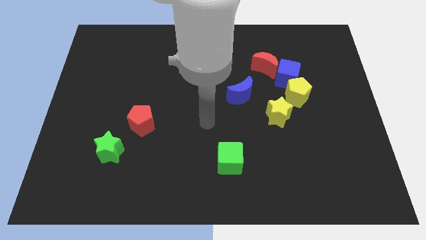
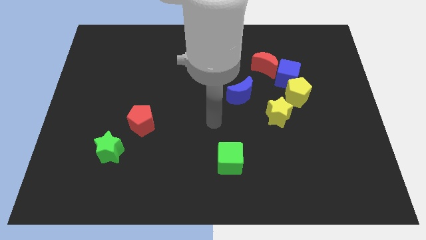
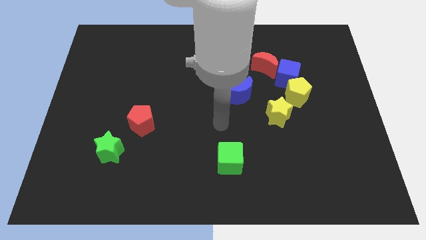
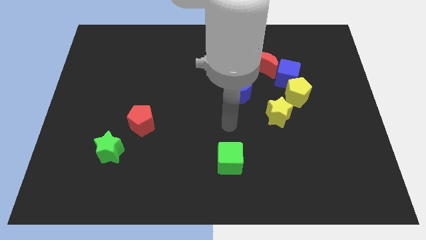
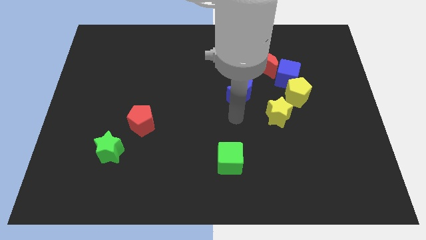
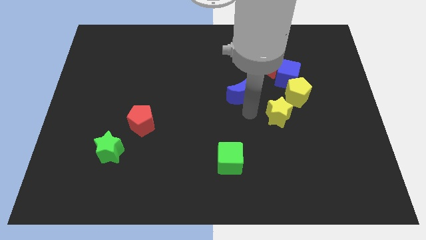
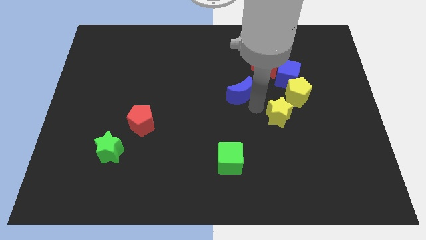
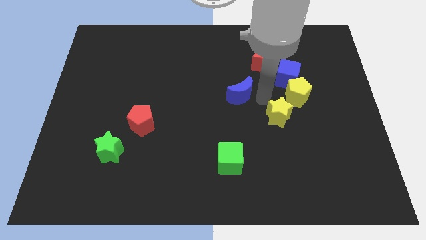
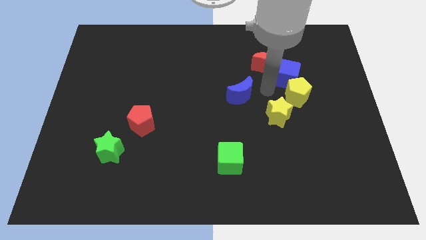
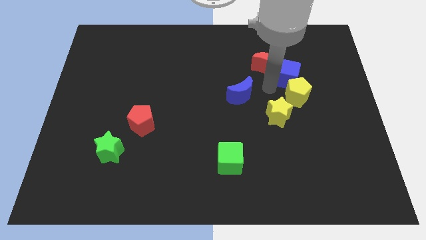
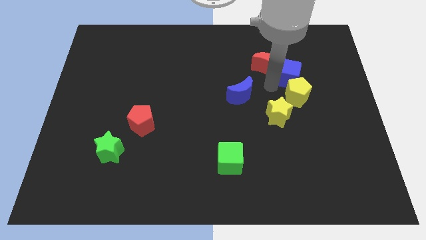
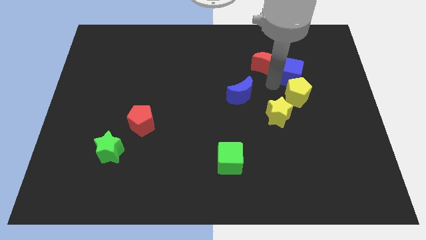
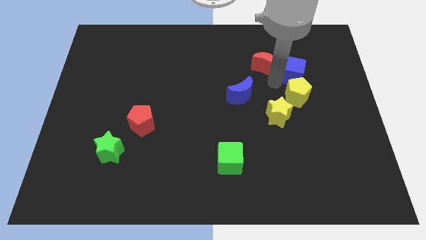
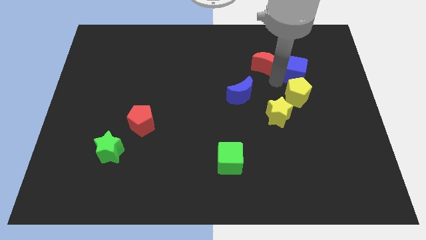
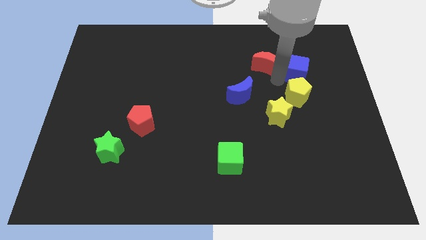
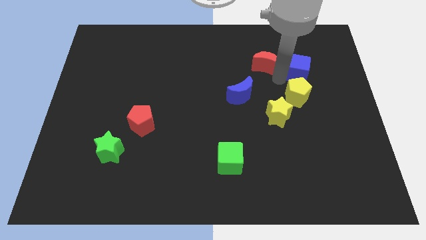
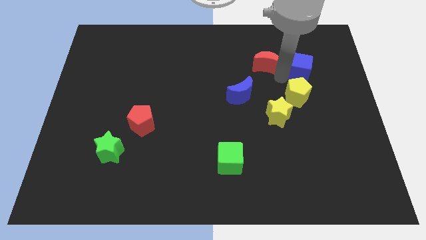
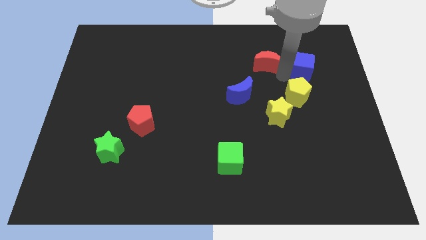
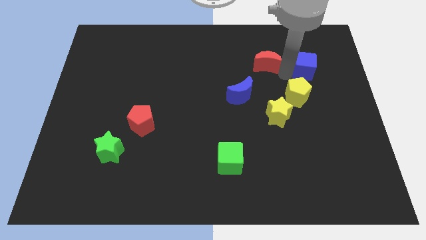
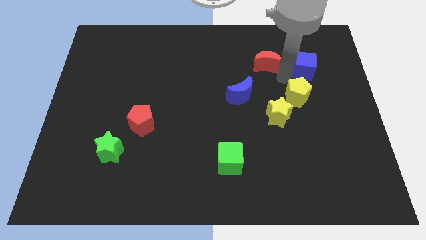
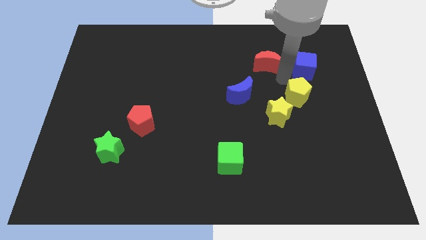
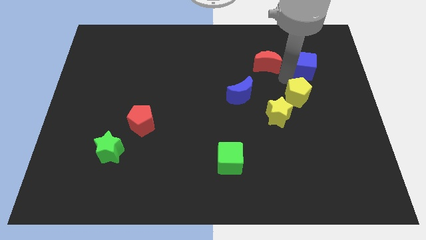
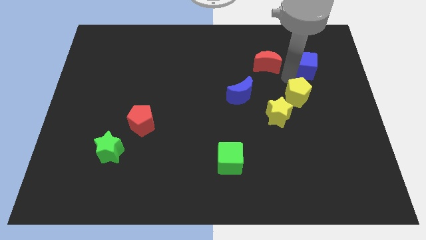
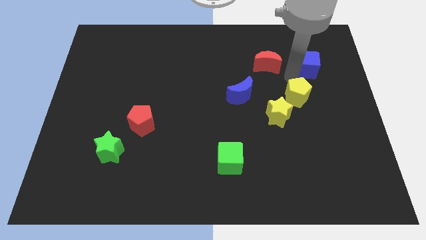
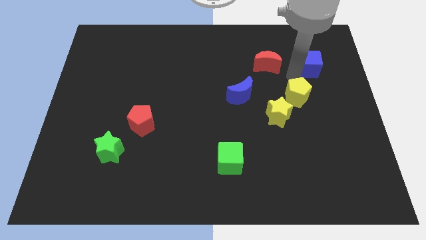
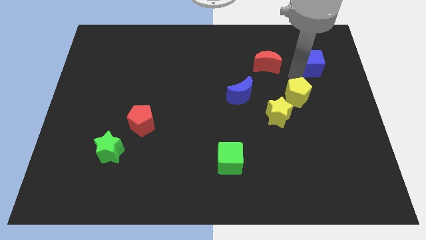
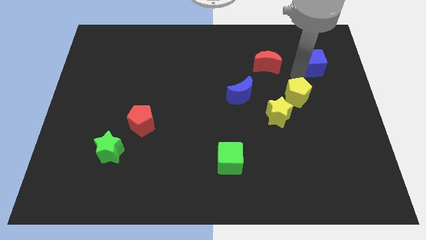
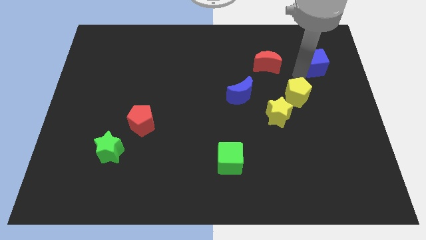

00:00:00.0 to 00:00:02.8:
separate the blue cube from the yellow pentagon and red moon

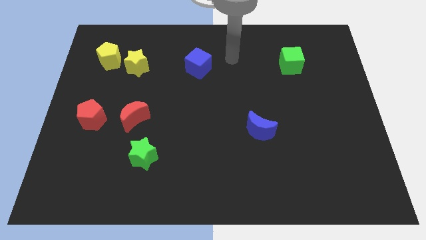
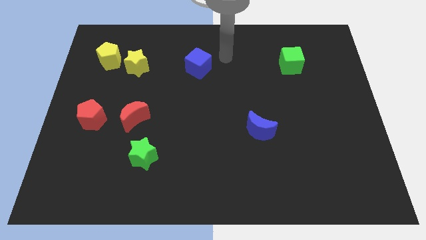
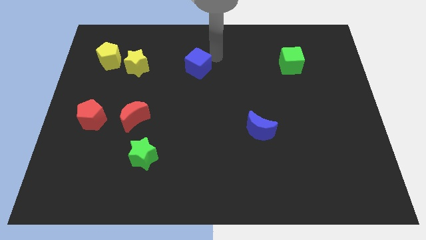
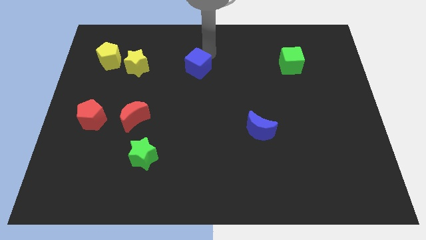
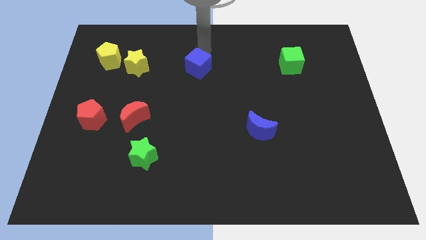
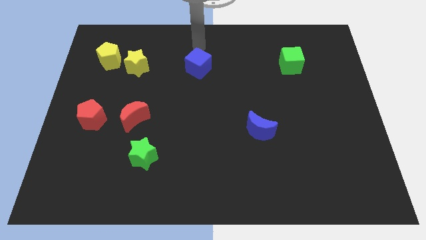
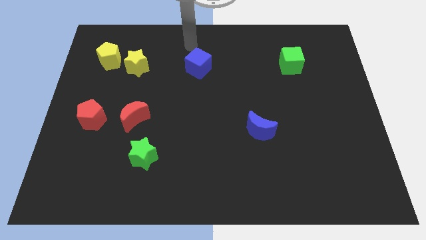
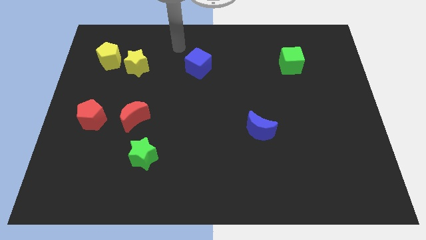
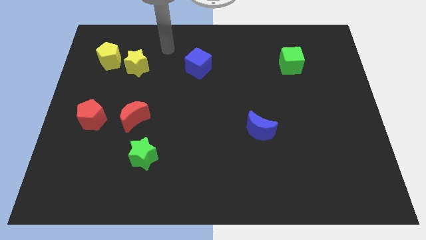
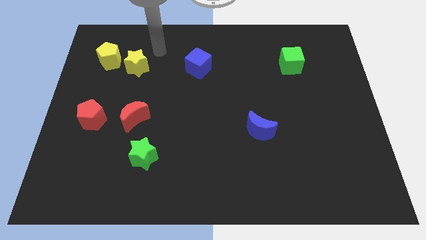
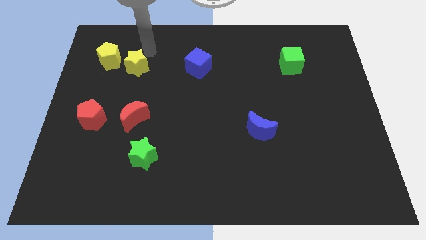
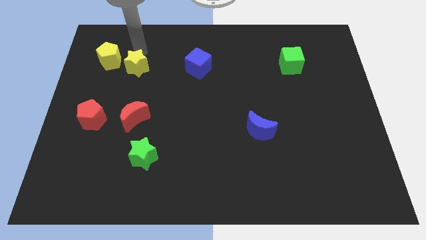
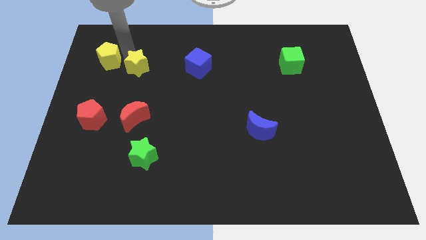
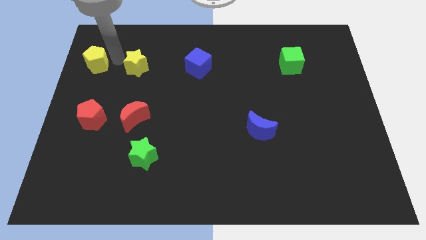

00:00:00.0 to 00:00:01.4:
move the yellow star away from the yellow pentagon

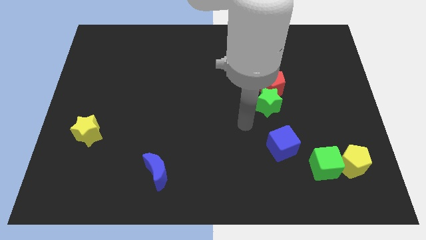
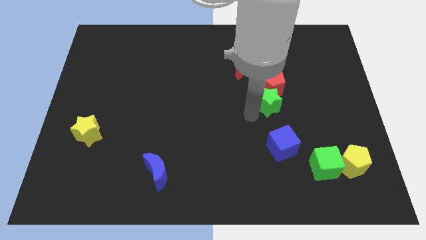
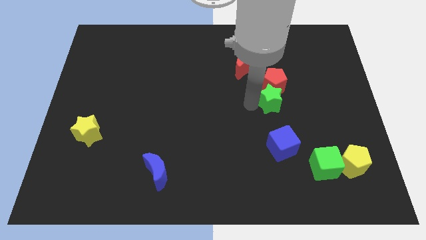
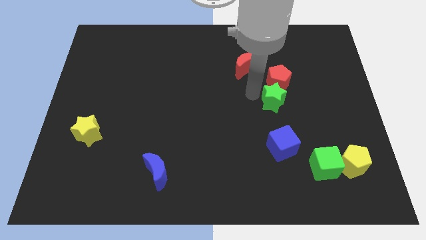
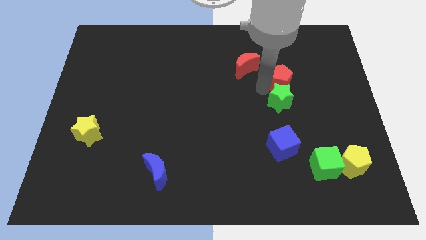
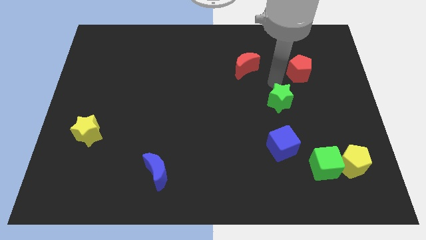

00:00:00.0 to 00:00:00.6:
move the green star away from the red pentagon

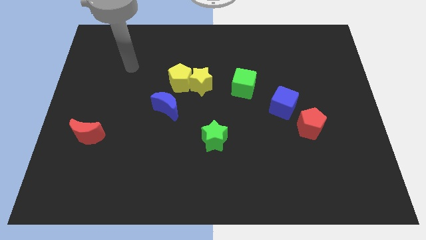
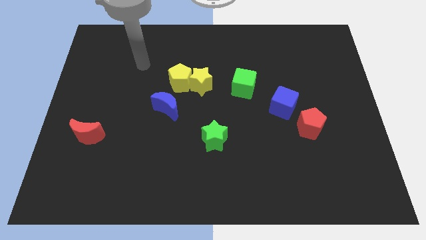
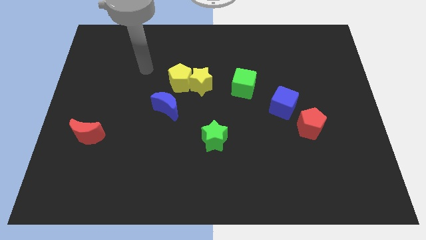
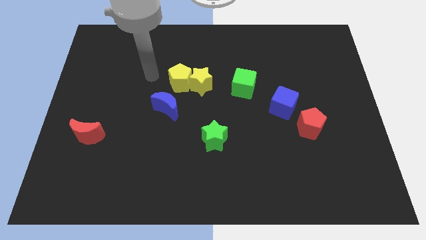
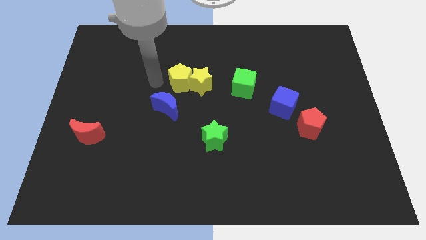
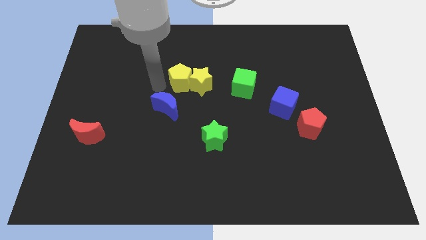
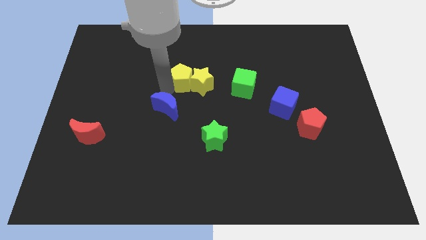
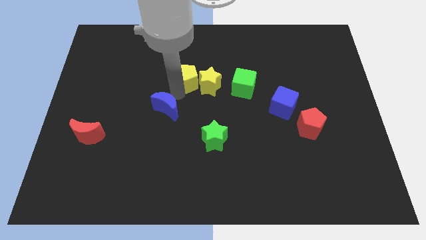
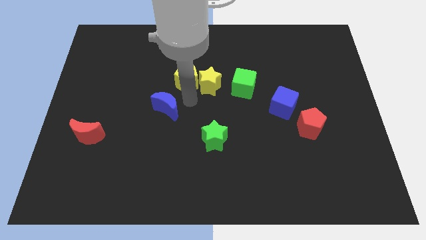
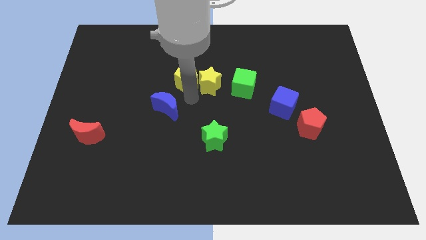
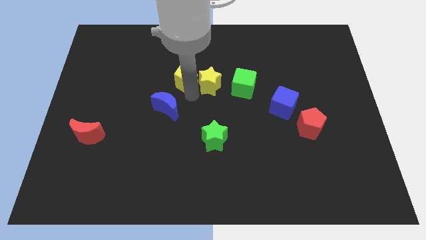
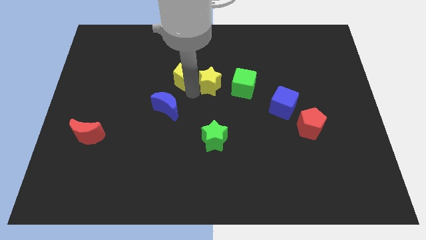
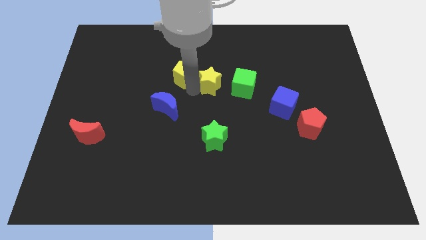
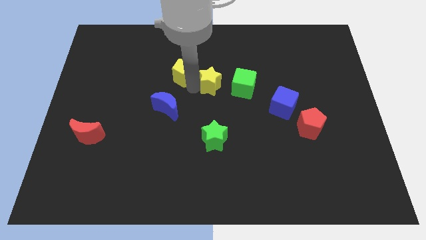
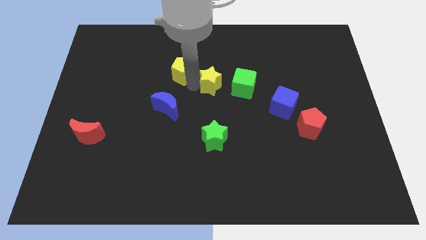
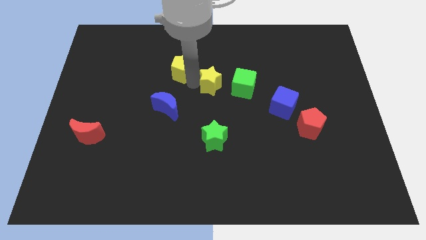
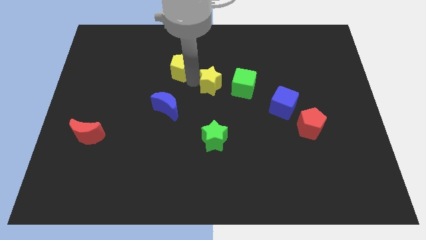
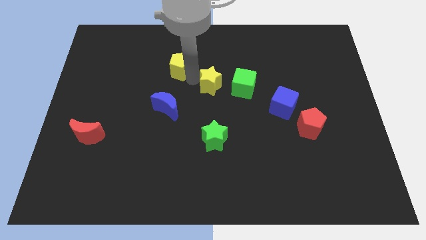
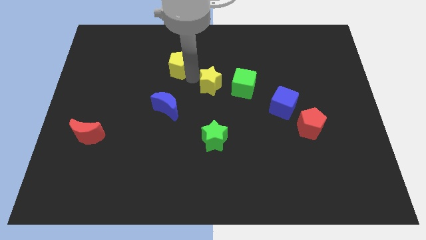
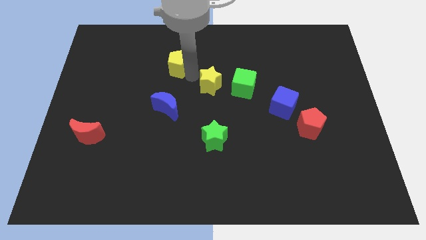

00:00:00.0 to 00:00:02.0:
move the yellow pentagon away from the yellow star and blue moon

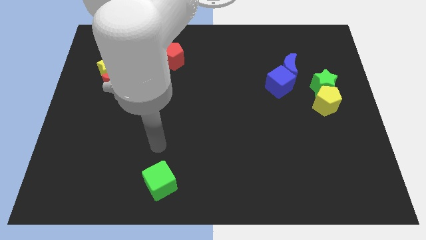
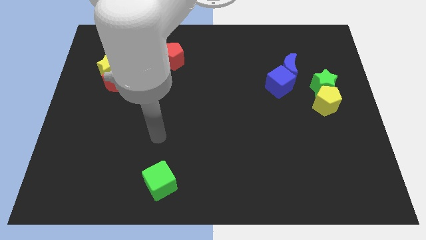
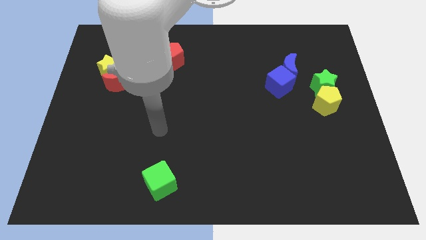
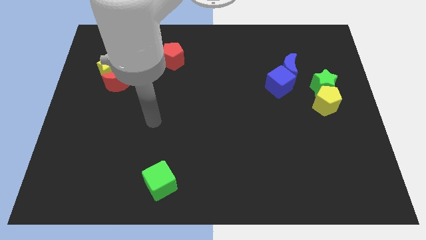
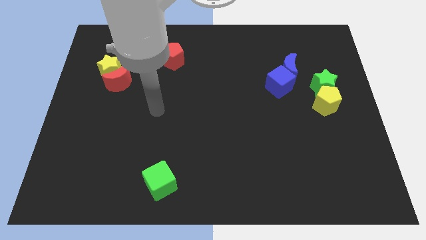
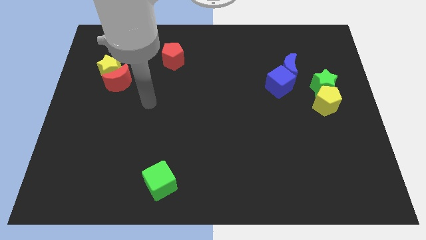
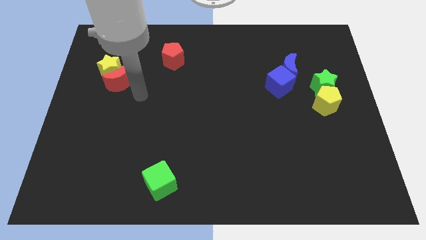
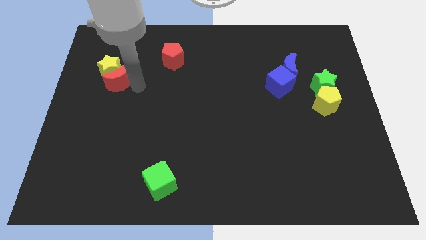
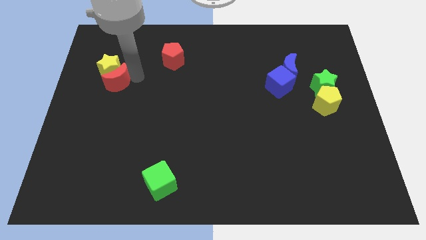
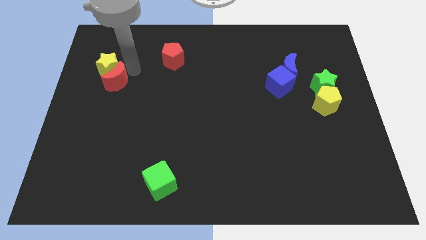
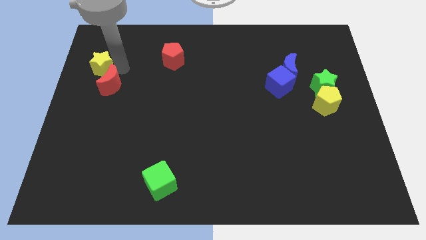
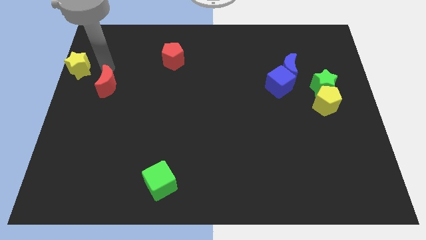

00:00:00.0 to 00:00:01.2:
separate the red moon from the yellow star

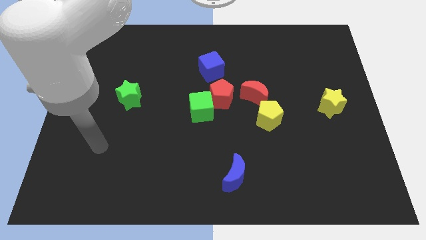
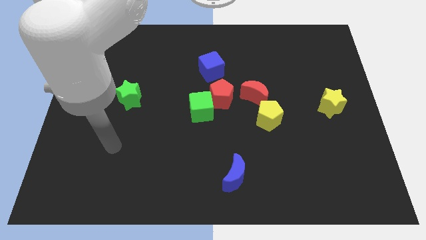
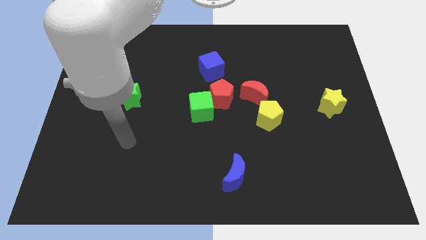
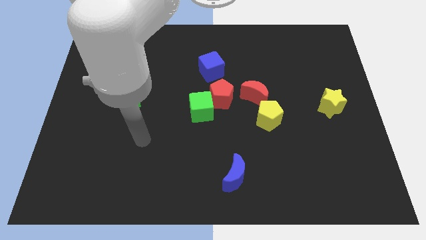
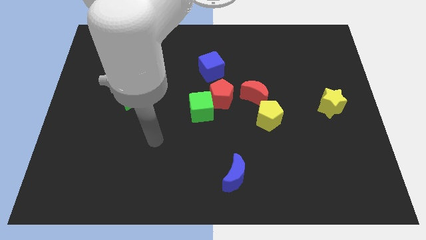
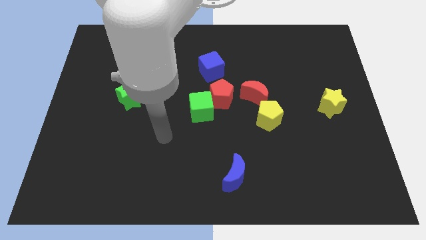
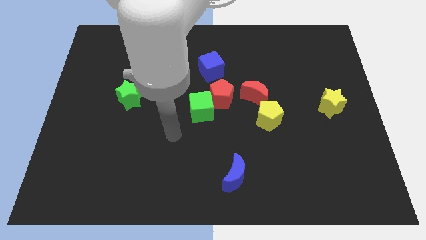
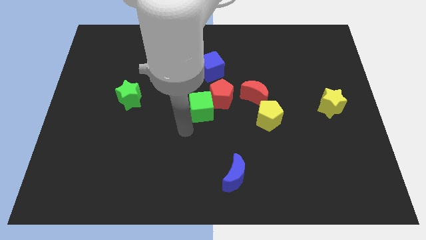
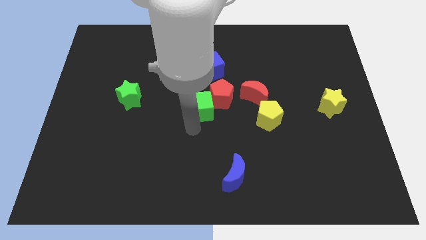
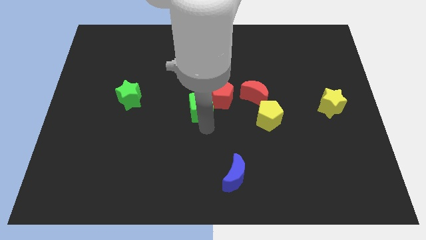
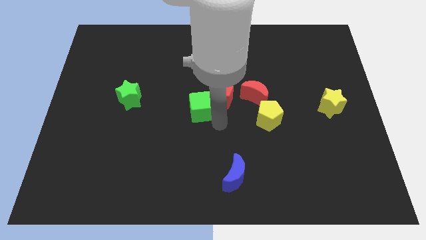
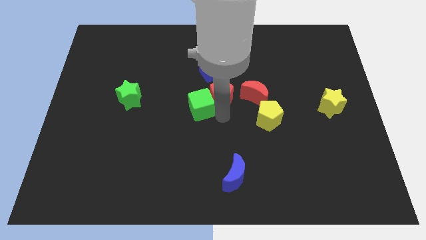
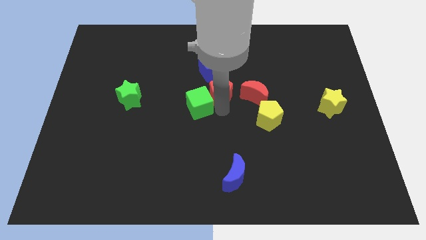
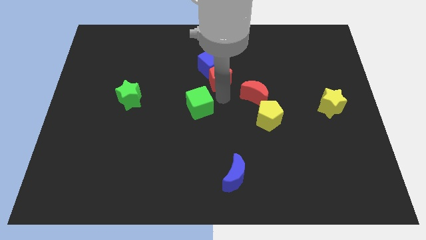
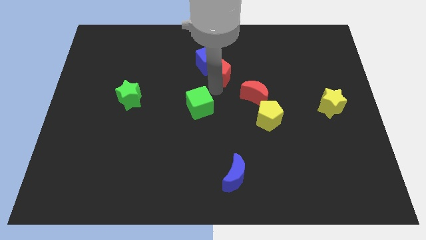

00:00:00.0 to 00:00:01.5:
pull the green cube apart from the red pentagon
